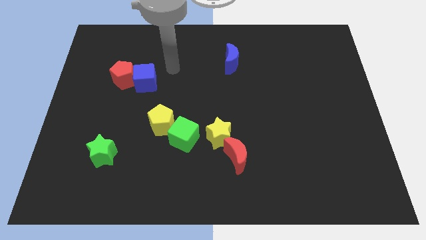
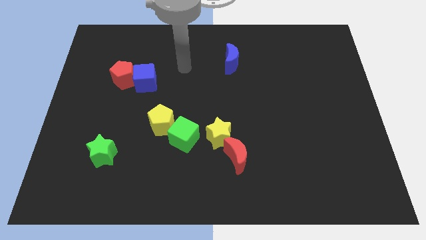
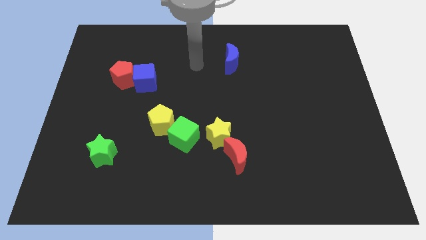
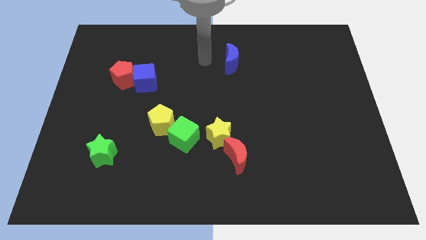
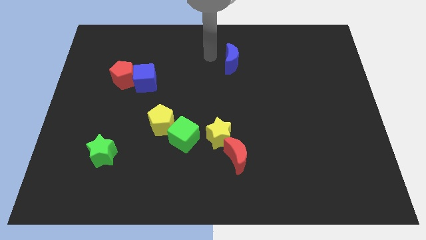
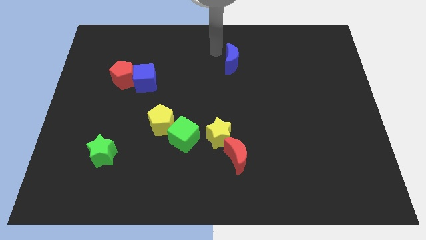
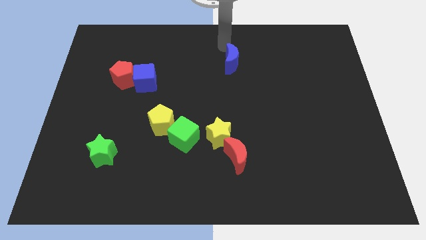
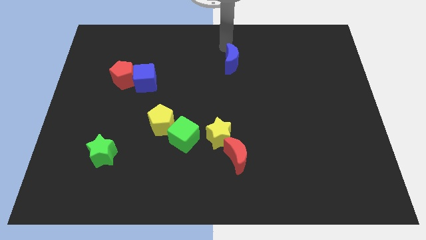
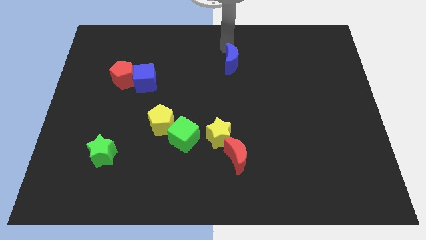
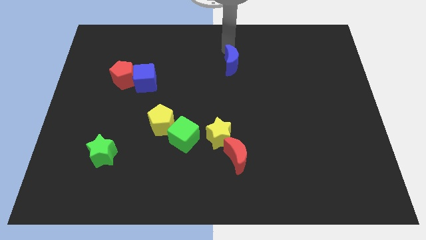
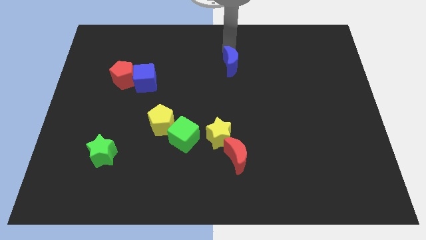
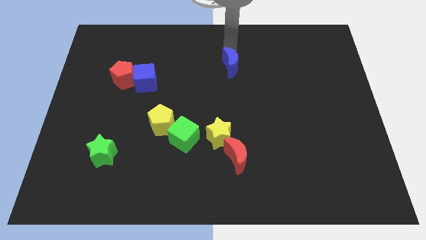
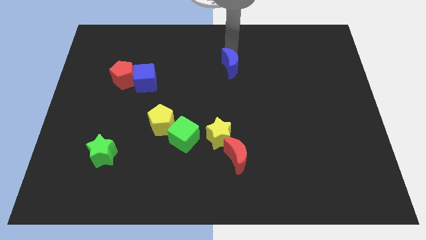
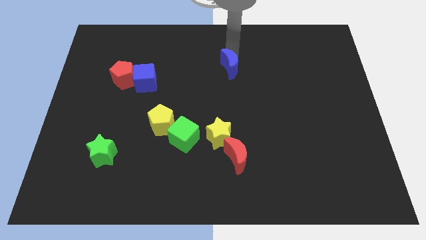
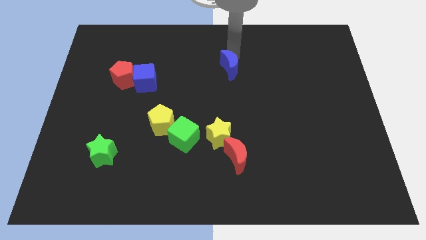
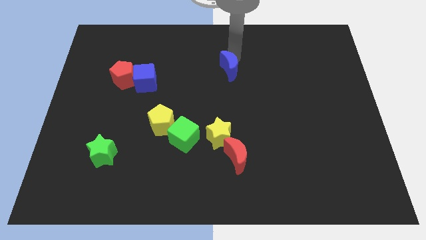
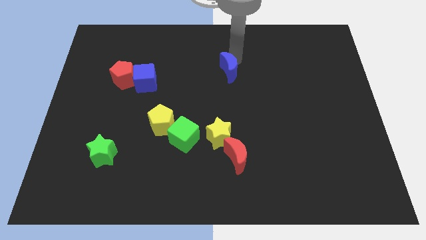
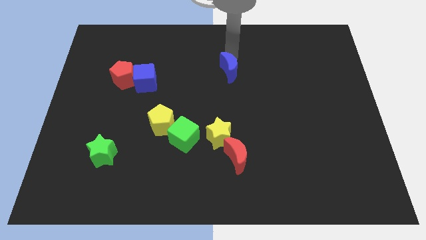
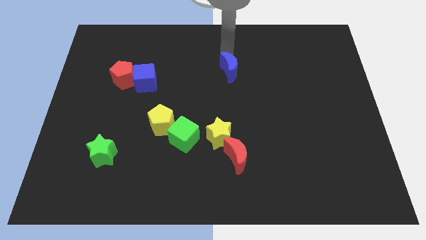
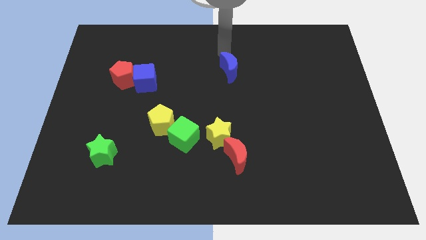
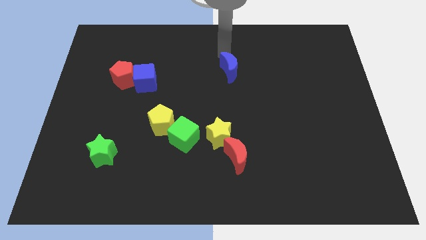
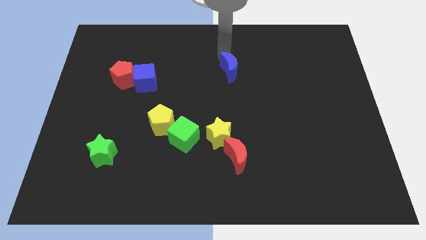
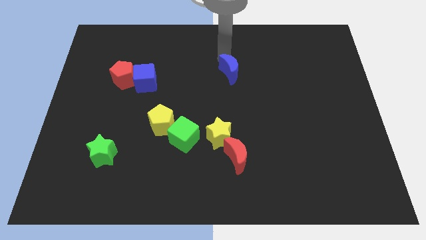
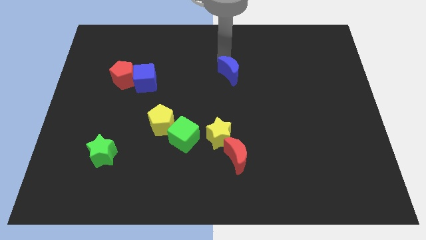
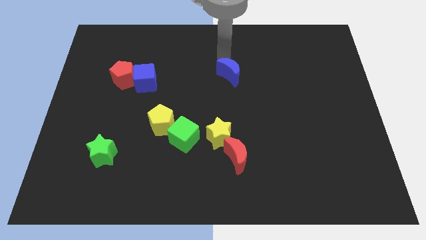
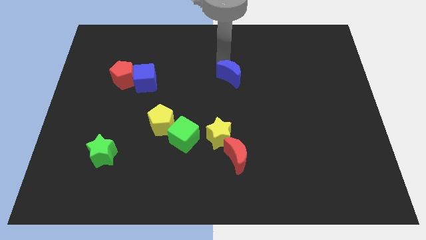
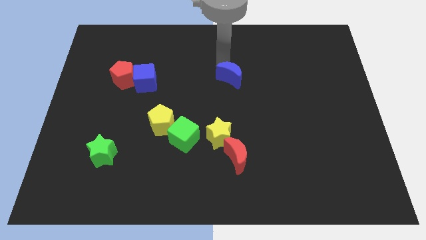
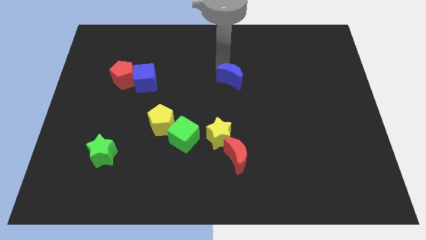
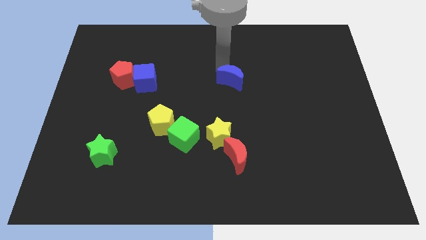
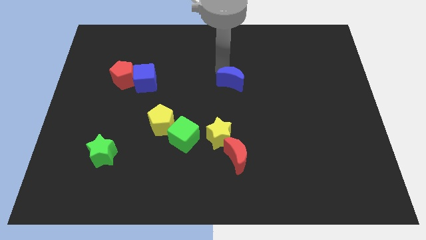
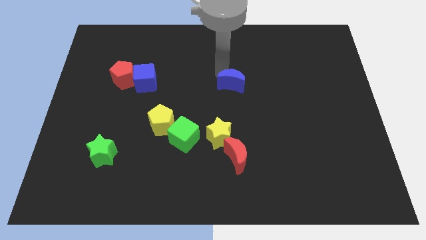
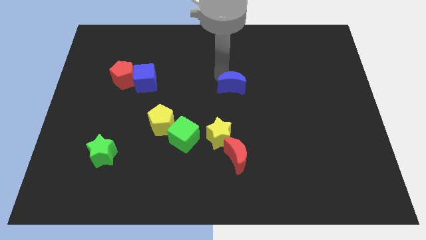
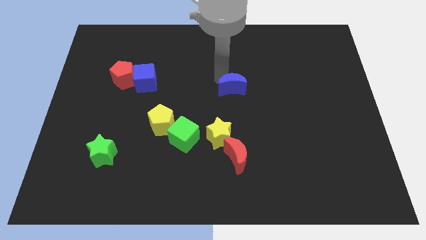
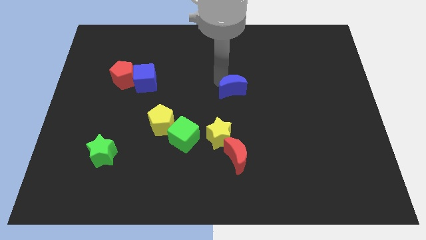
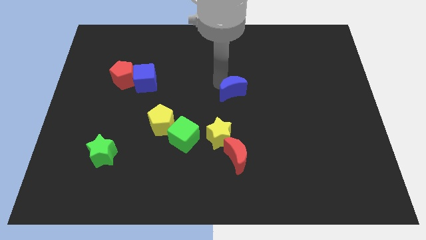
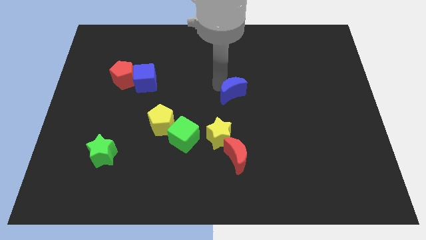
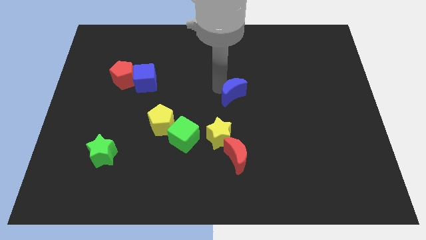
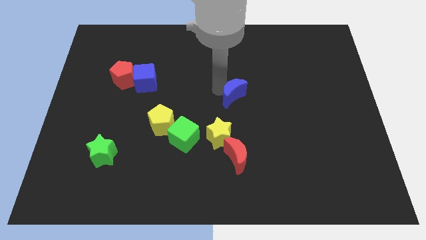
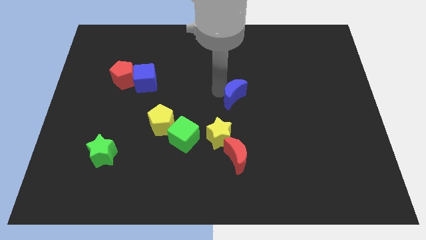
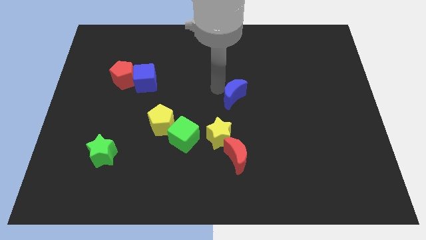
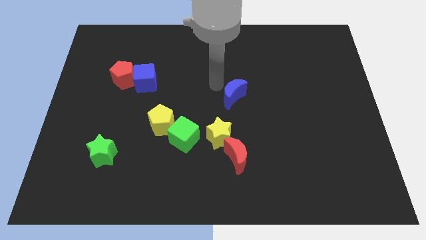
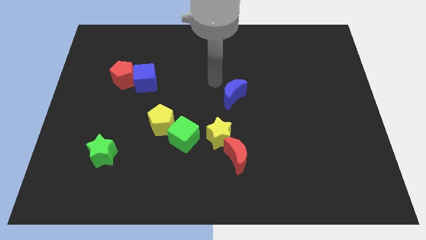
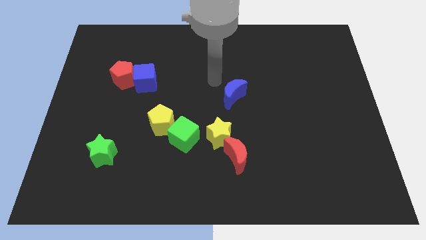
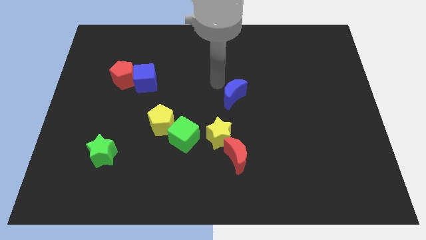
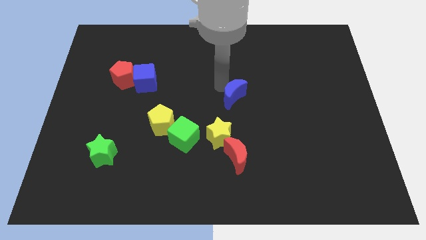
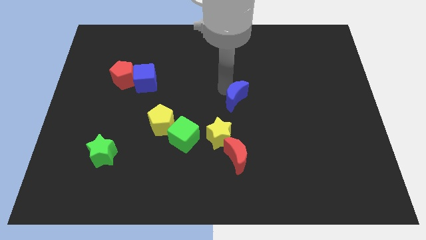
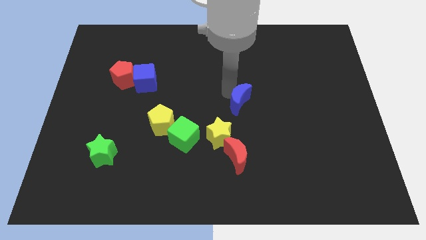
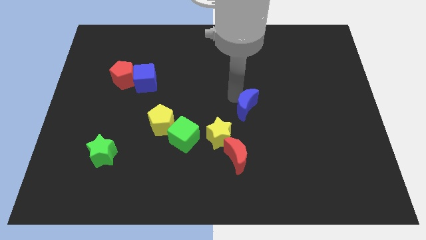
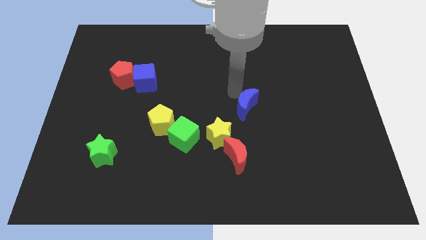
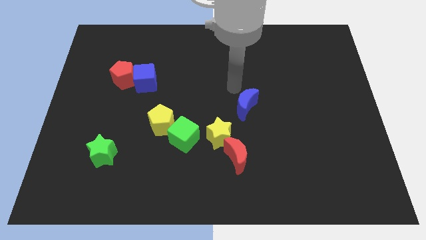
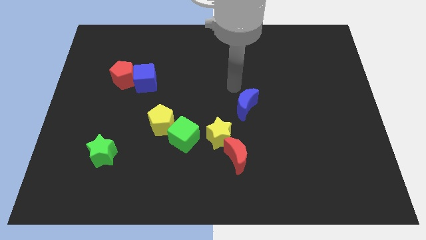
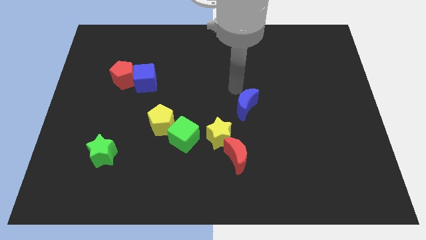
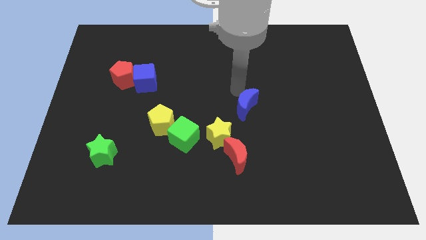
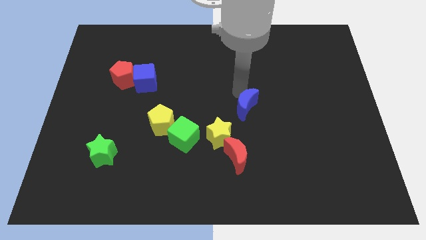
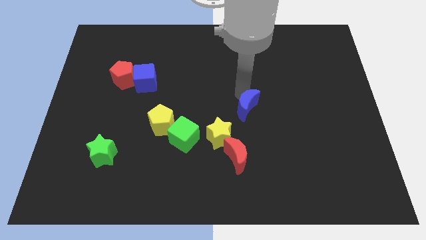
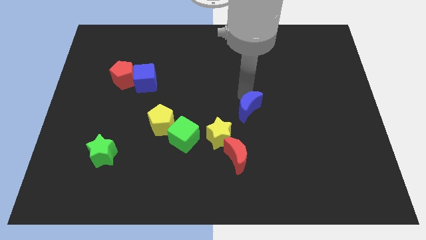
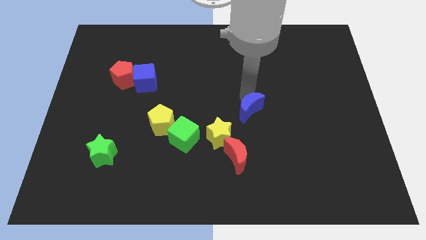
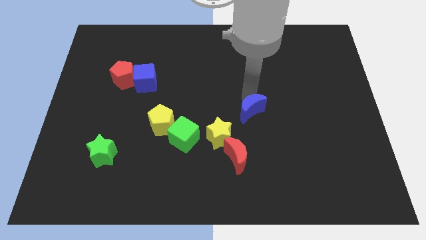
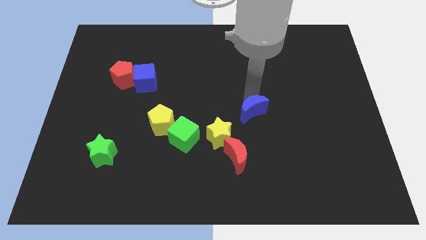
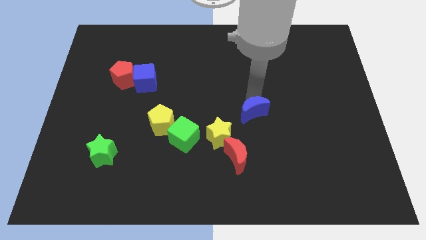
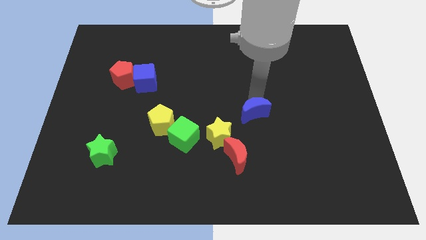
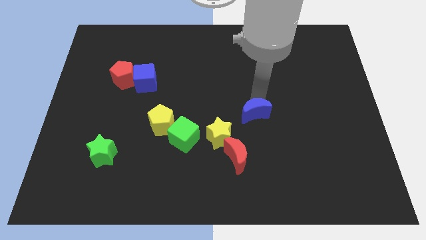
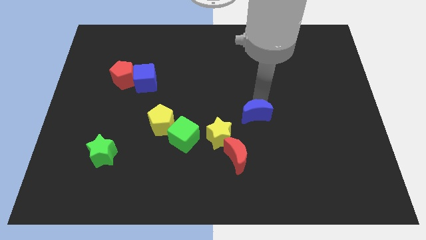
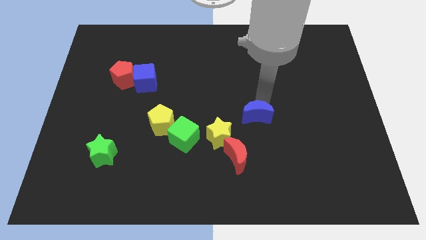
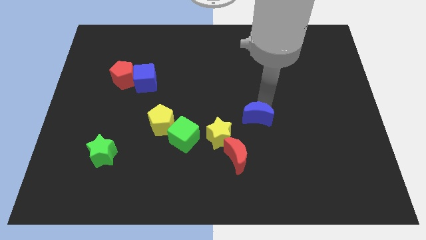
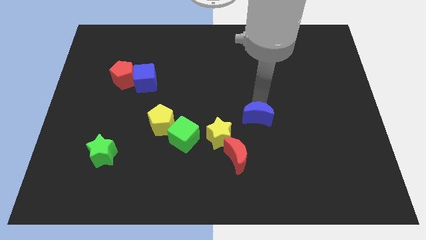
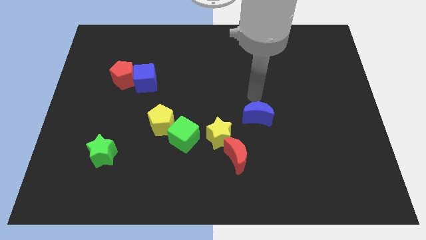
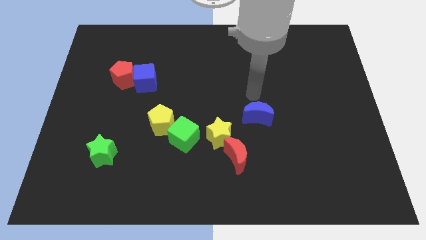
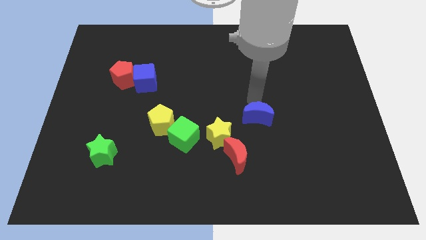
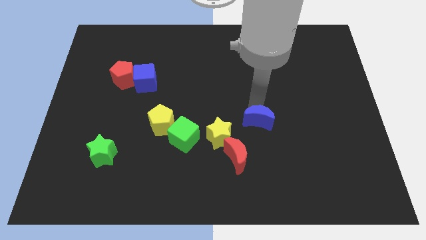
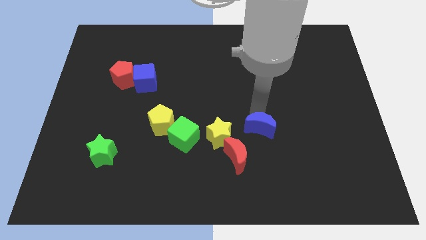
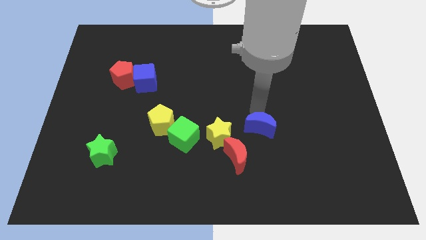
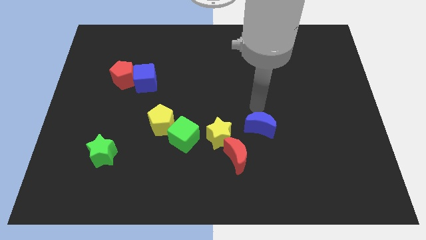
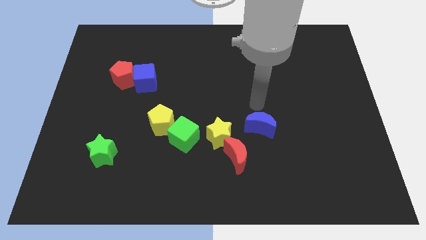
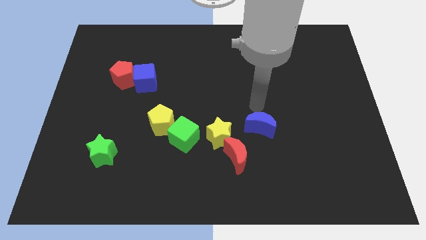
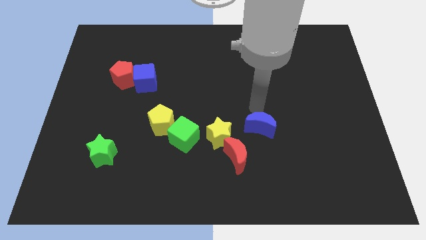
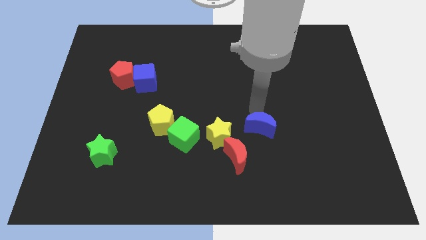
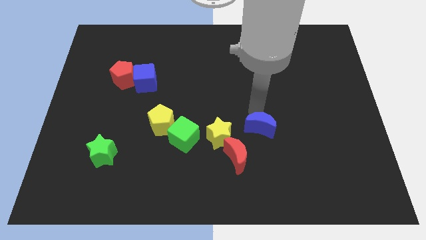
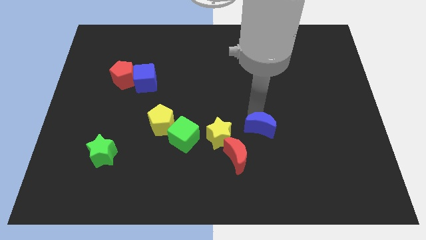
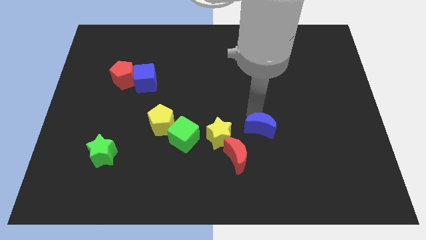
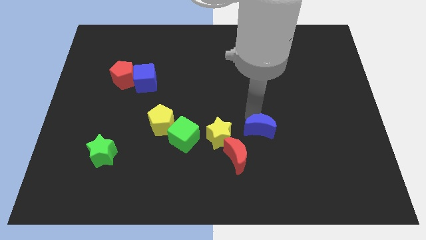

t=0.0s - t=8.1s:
move the blue moon down
